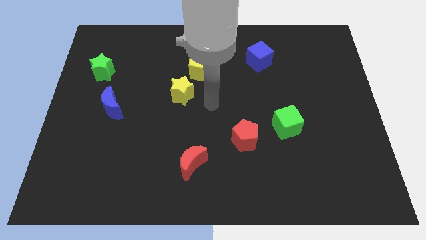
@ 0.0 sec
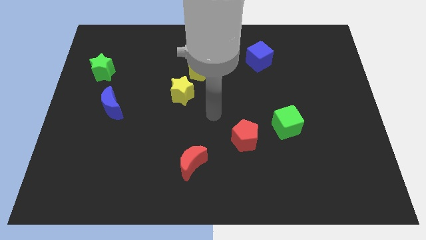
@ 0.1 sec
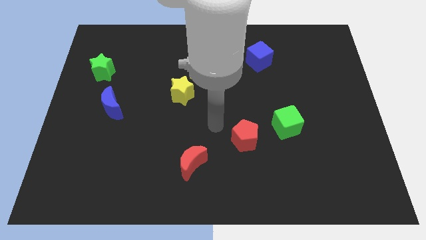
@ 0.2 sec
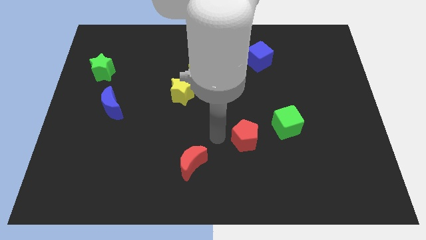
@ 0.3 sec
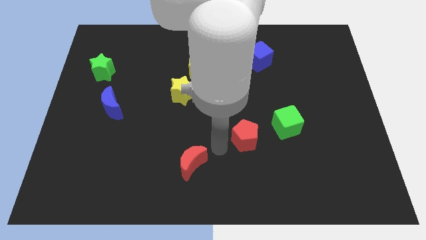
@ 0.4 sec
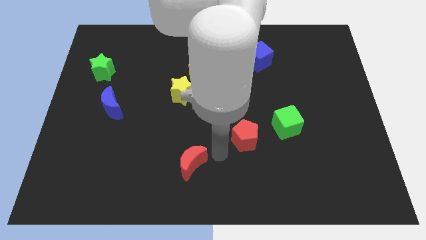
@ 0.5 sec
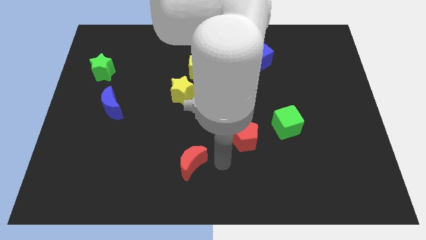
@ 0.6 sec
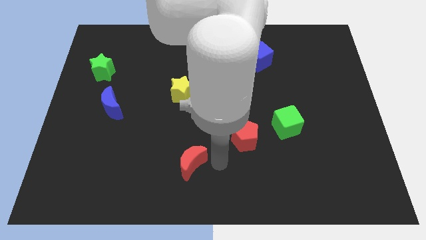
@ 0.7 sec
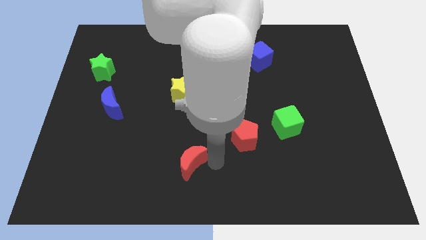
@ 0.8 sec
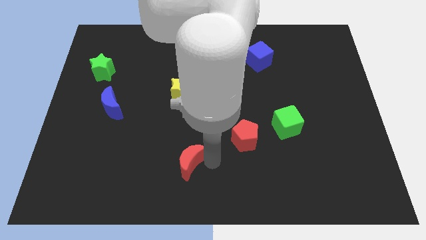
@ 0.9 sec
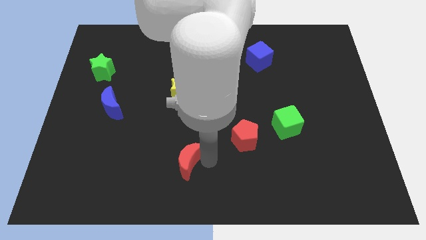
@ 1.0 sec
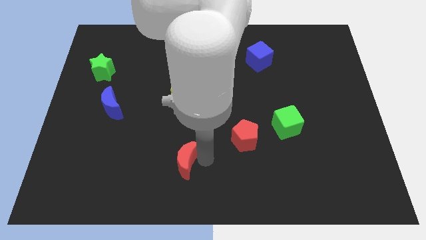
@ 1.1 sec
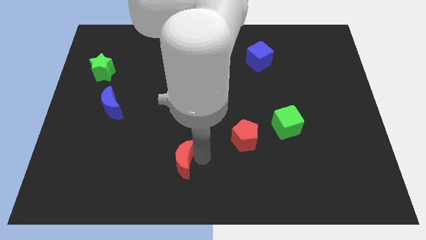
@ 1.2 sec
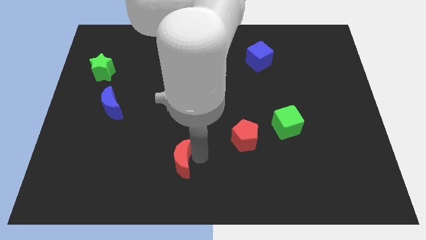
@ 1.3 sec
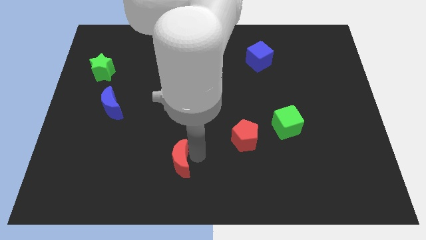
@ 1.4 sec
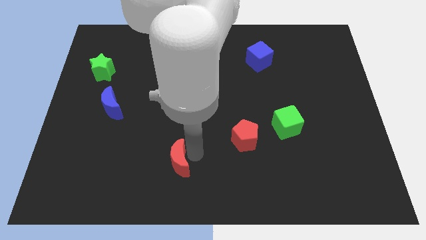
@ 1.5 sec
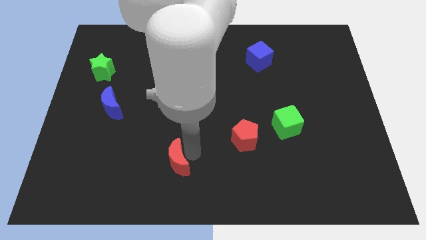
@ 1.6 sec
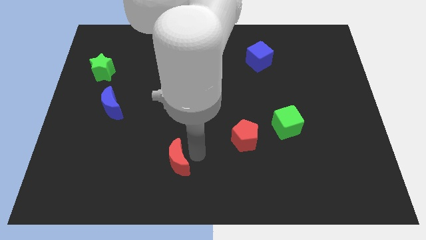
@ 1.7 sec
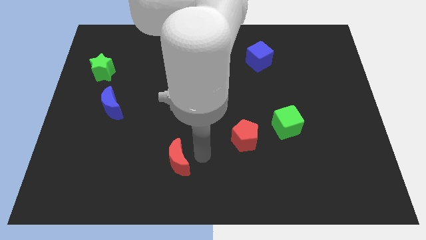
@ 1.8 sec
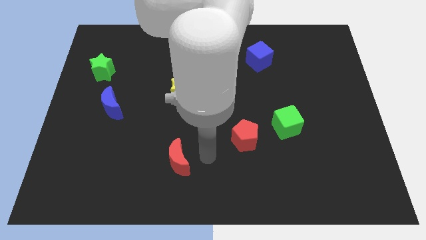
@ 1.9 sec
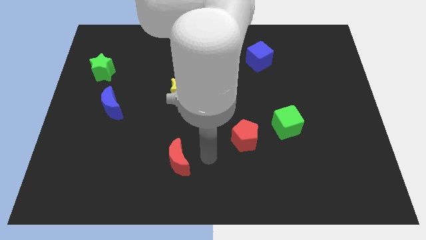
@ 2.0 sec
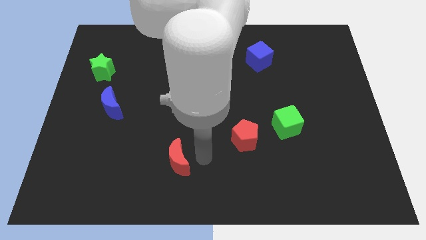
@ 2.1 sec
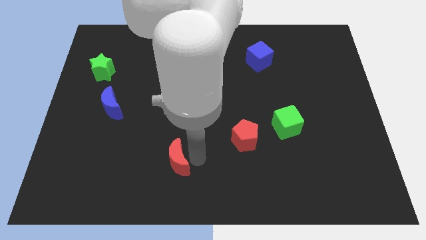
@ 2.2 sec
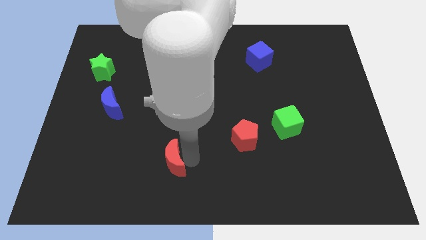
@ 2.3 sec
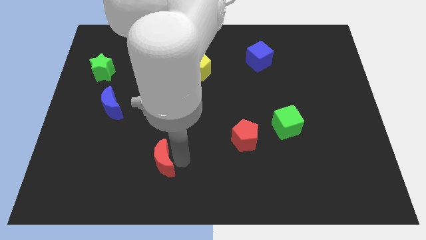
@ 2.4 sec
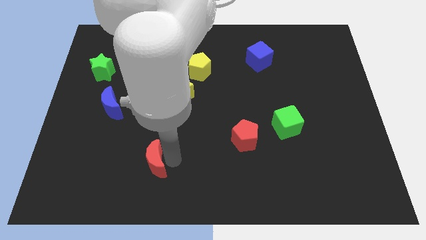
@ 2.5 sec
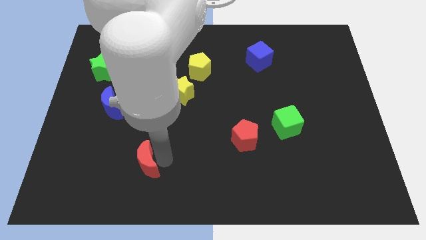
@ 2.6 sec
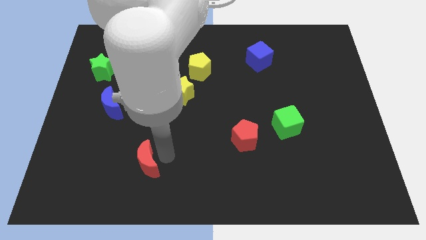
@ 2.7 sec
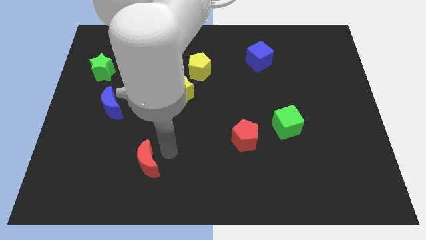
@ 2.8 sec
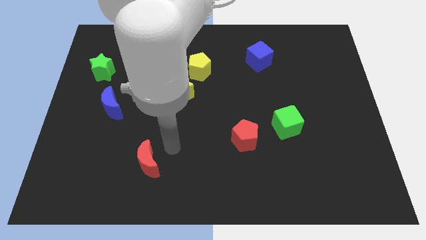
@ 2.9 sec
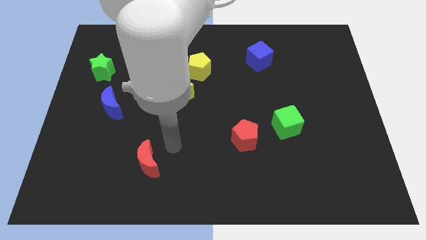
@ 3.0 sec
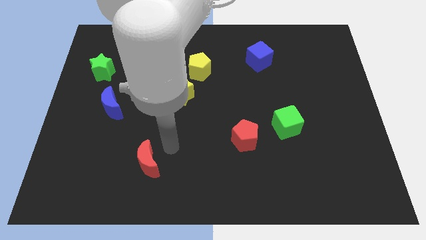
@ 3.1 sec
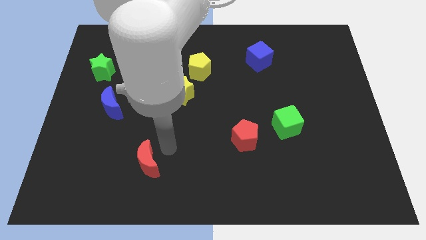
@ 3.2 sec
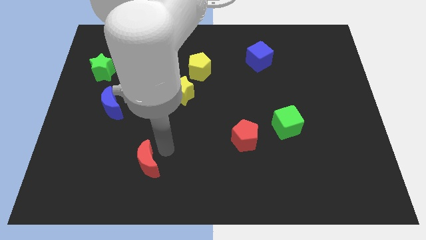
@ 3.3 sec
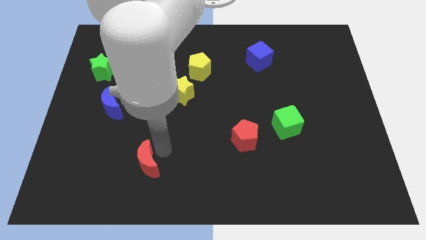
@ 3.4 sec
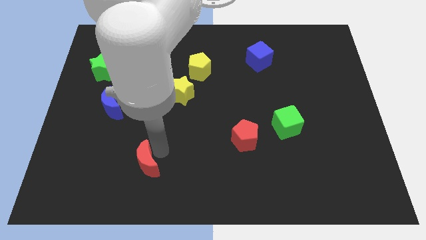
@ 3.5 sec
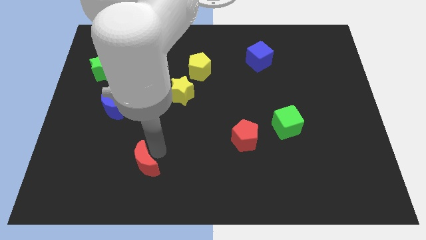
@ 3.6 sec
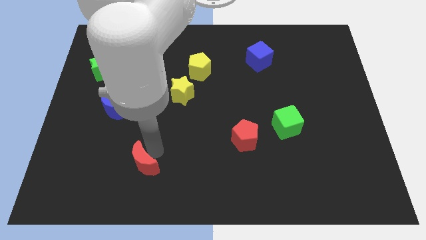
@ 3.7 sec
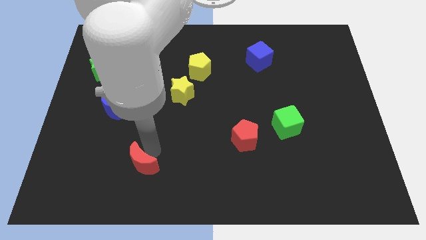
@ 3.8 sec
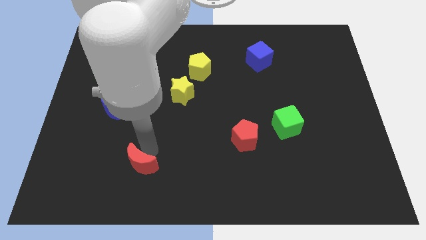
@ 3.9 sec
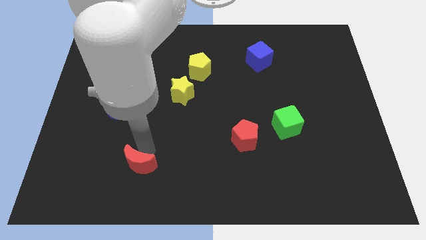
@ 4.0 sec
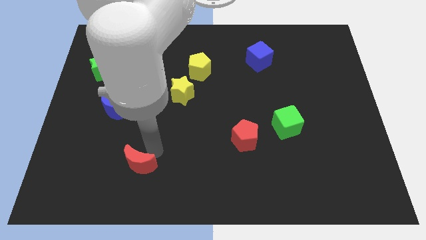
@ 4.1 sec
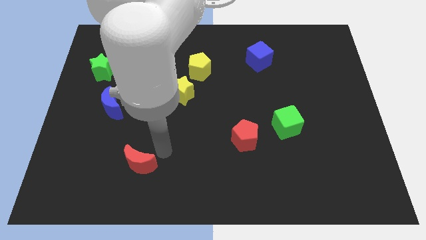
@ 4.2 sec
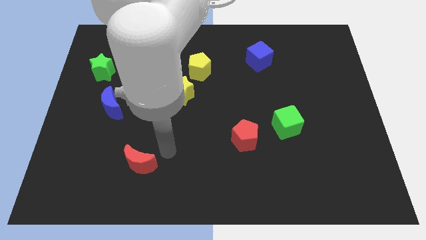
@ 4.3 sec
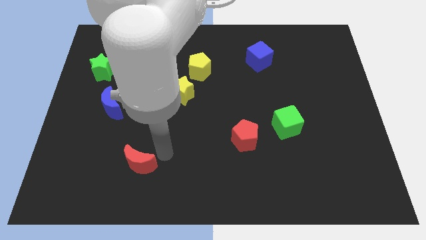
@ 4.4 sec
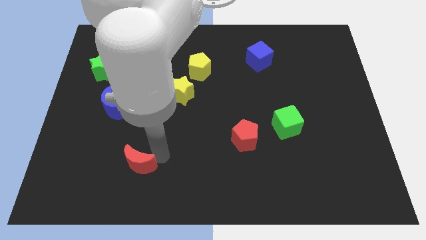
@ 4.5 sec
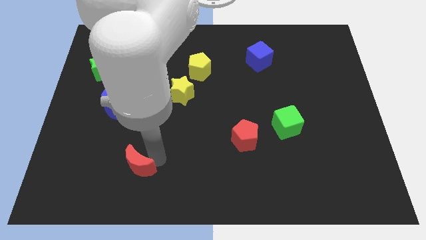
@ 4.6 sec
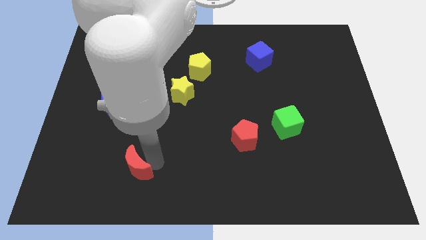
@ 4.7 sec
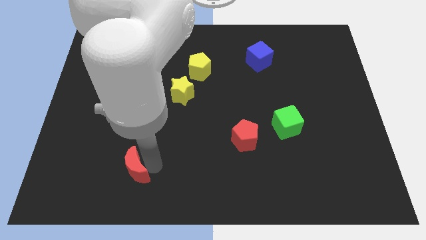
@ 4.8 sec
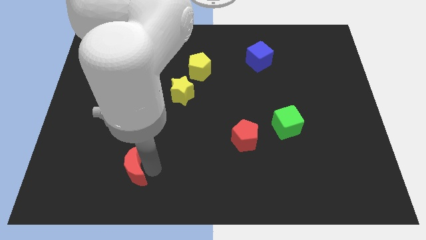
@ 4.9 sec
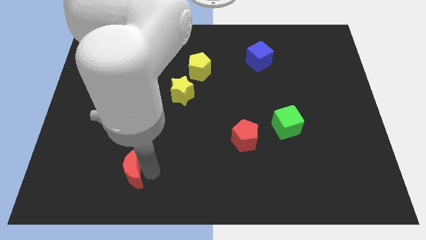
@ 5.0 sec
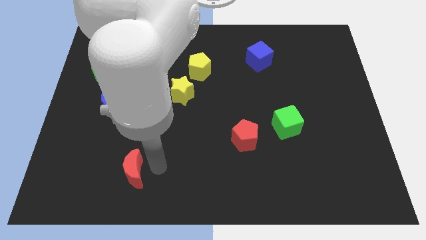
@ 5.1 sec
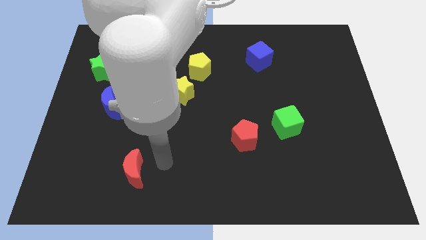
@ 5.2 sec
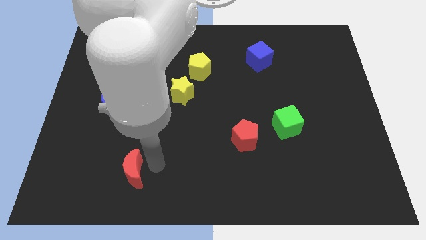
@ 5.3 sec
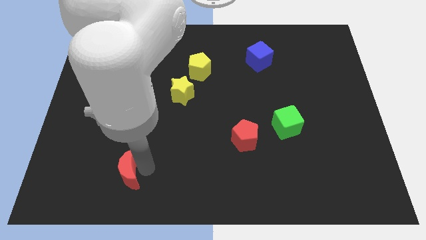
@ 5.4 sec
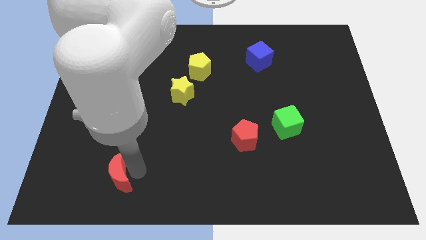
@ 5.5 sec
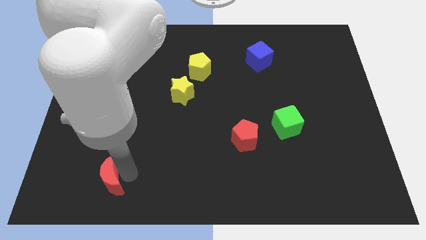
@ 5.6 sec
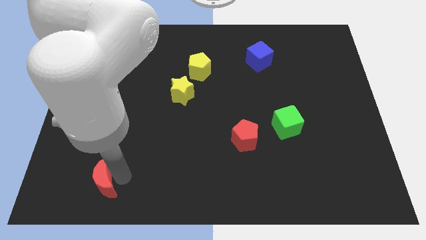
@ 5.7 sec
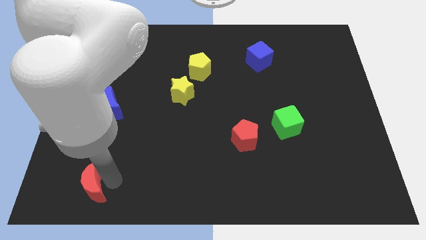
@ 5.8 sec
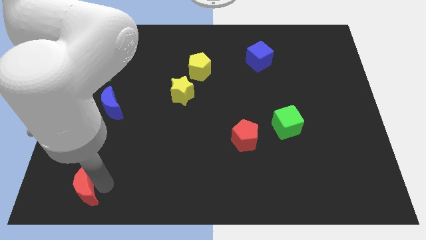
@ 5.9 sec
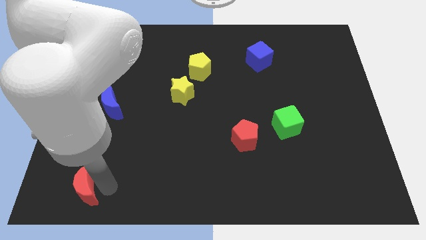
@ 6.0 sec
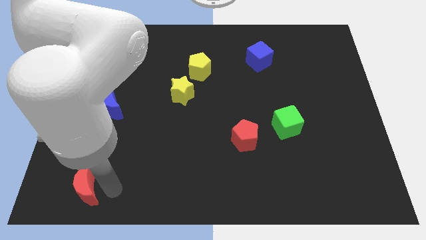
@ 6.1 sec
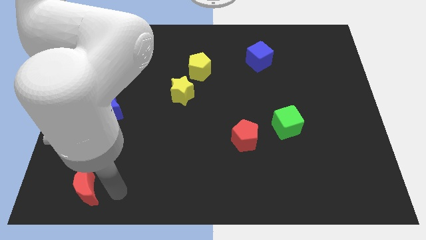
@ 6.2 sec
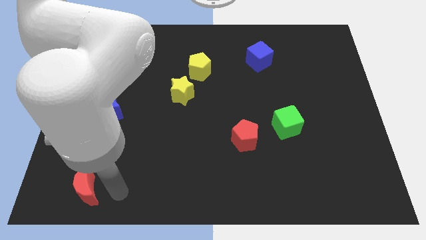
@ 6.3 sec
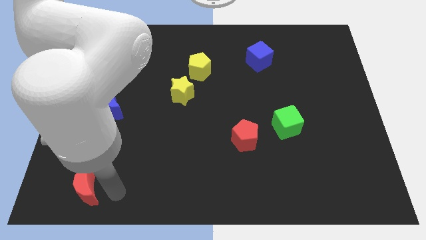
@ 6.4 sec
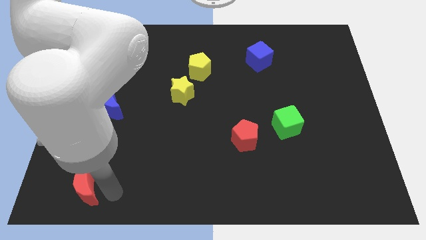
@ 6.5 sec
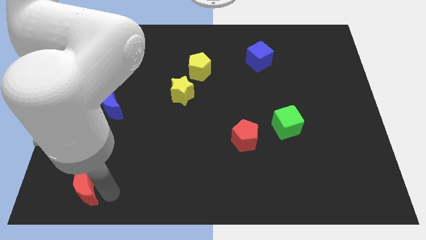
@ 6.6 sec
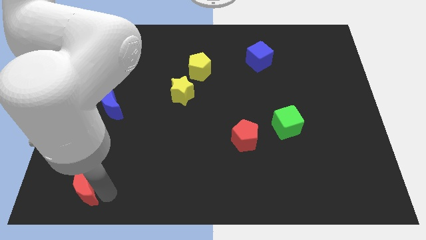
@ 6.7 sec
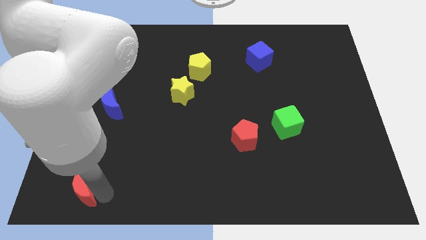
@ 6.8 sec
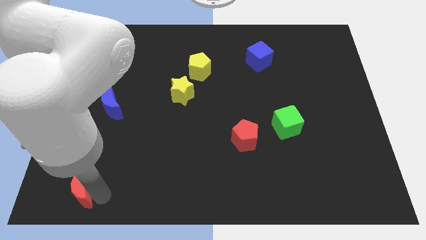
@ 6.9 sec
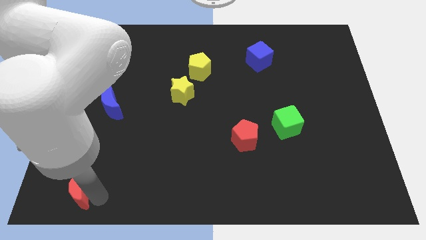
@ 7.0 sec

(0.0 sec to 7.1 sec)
put the red moon to the bottom left of the board
